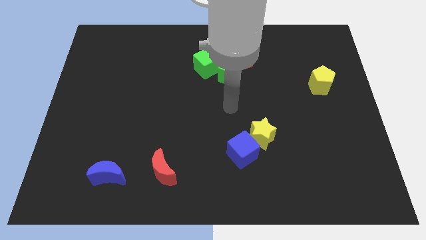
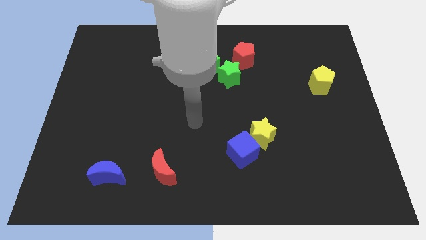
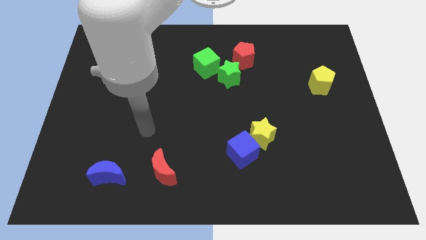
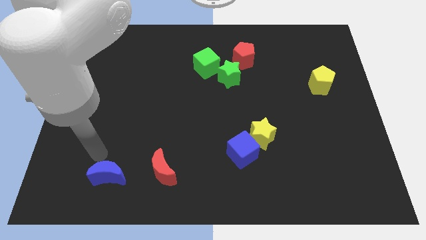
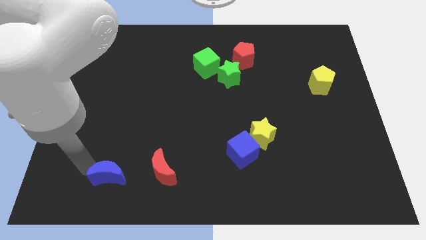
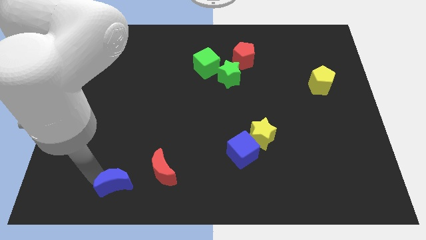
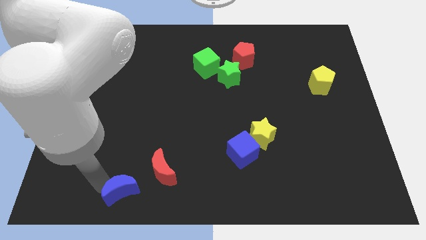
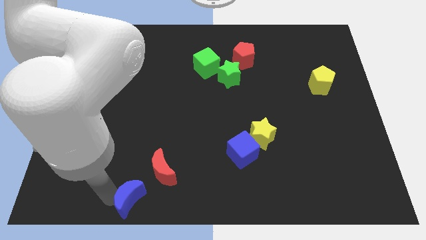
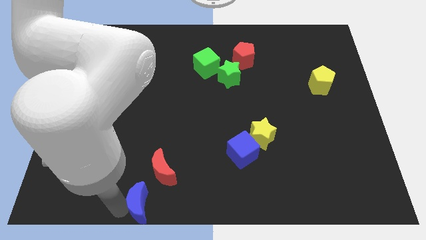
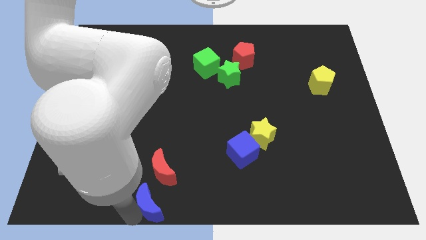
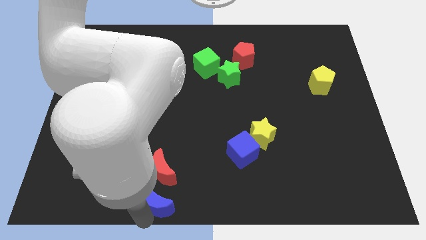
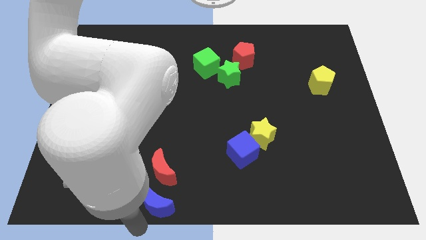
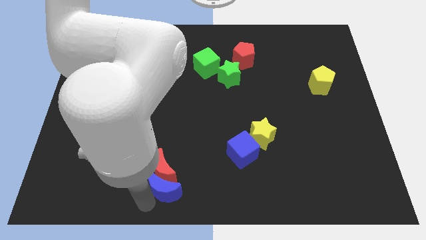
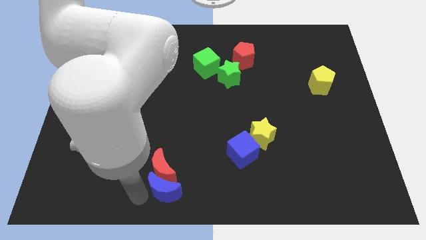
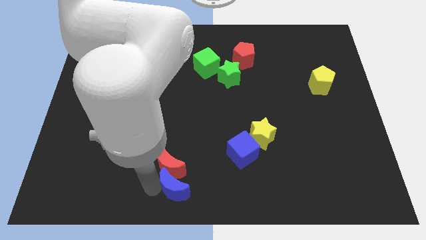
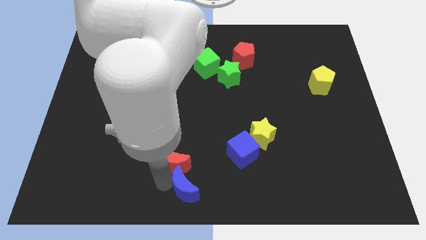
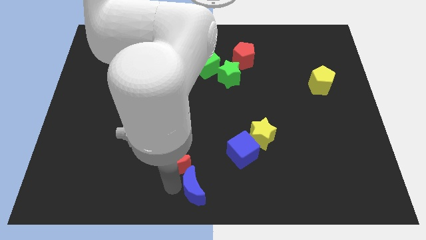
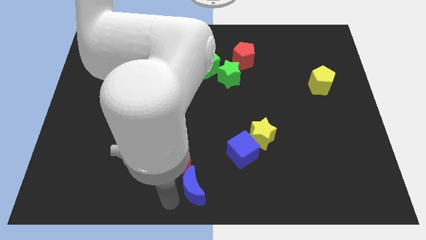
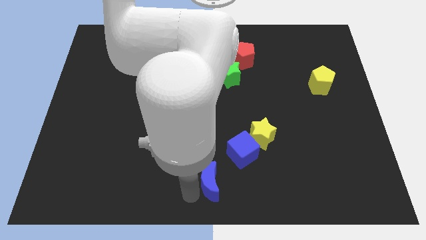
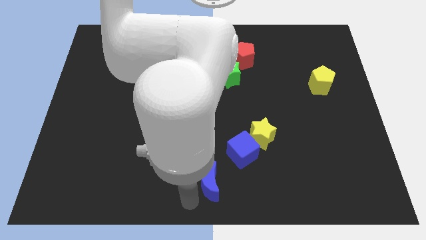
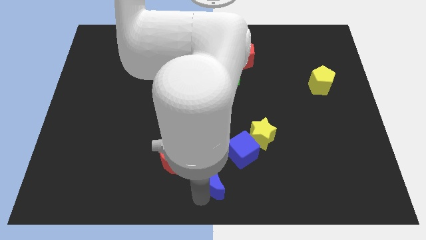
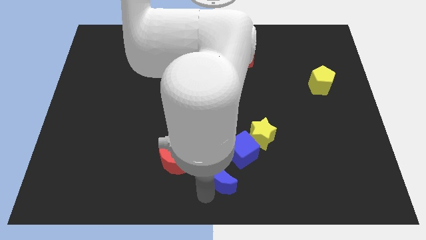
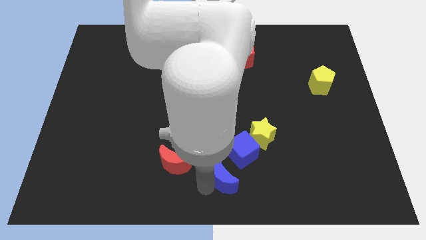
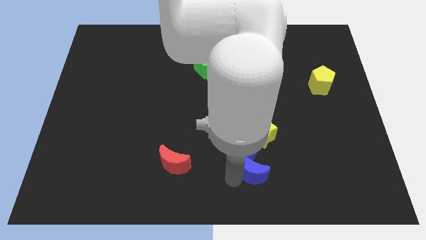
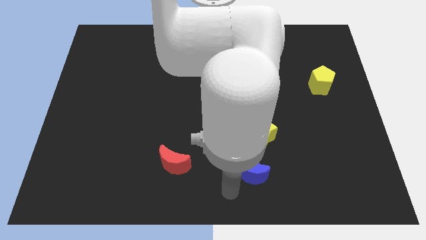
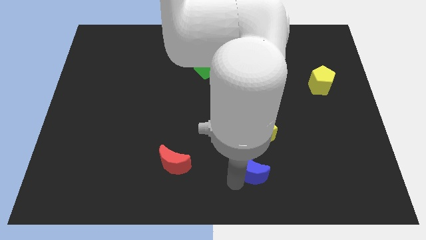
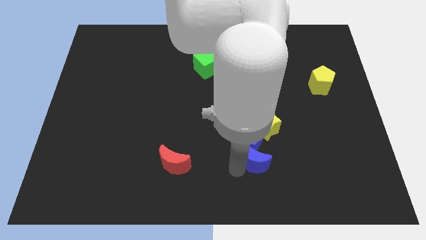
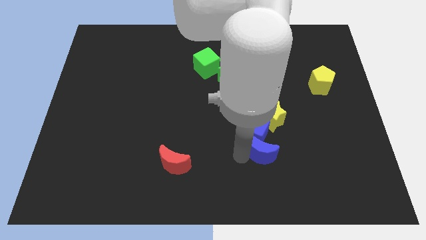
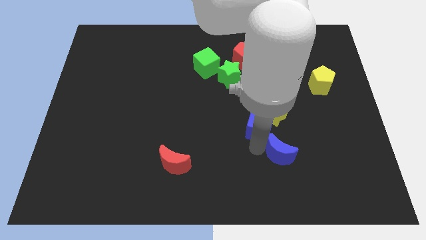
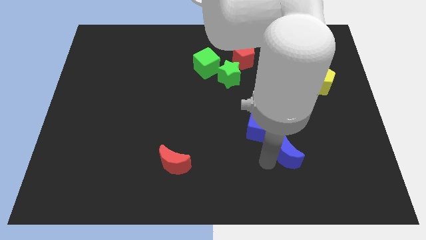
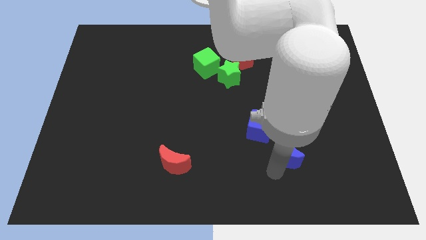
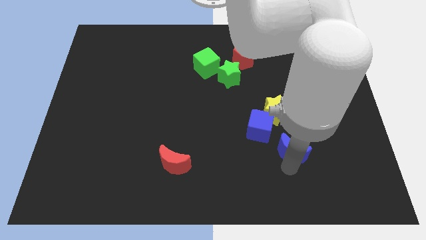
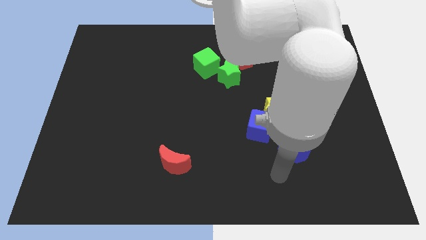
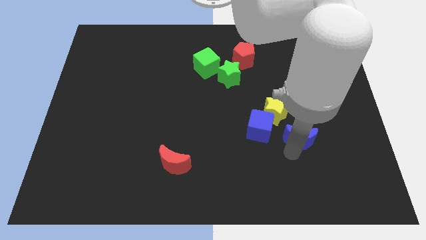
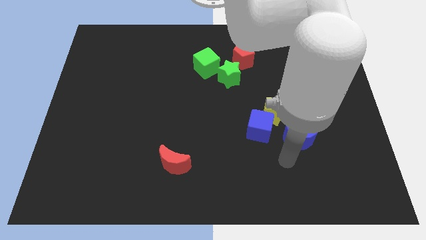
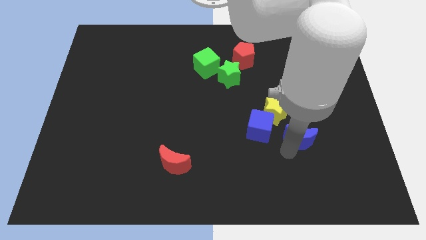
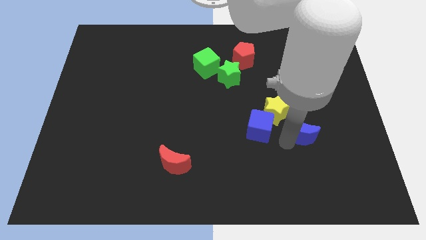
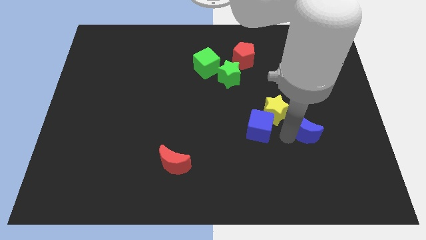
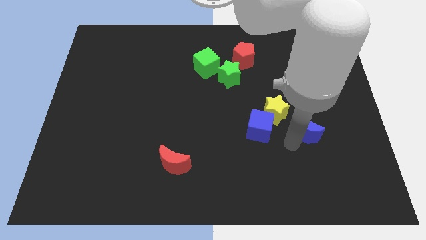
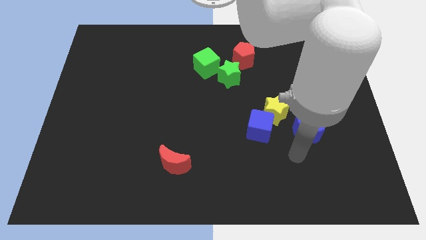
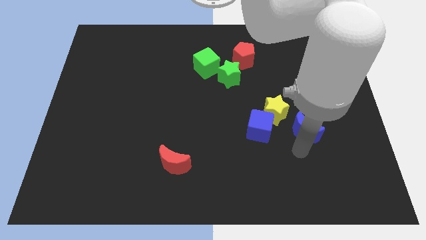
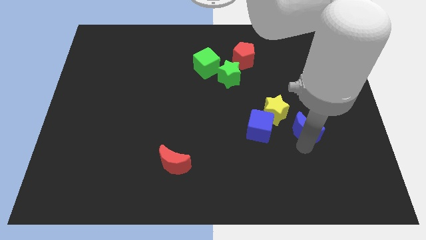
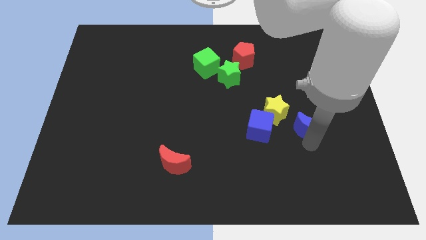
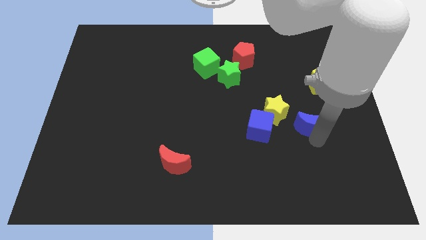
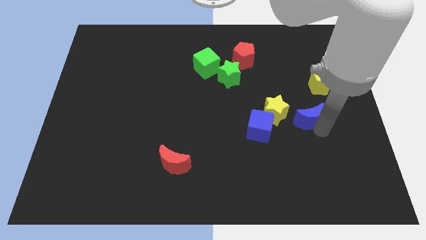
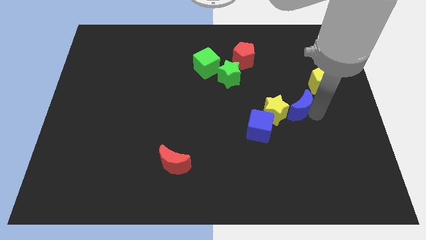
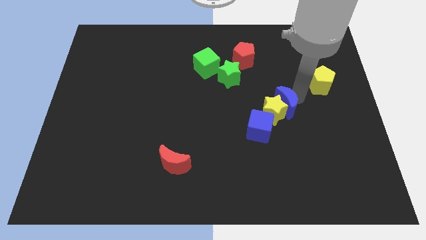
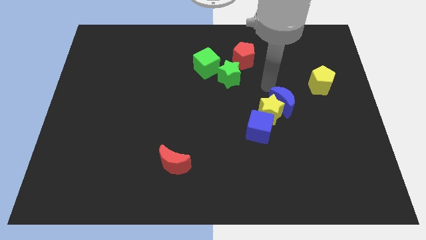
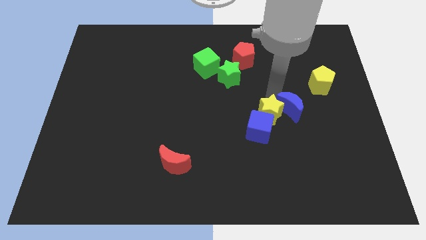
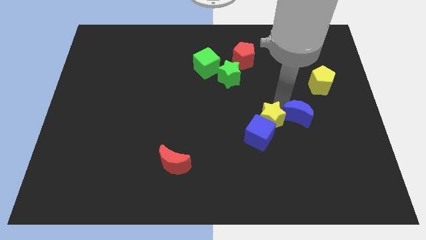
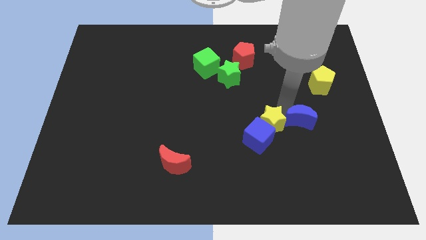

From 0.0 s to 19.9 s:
put the blue moon to the right side of the blue cube

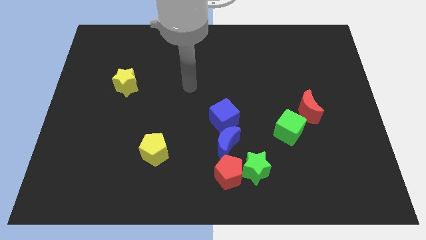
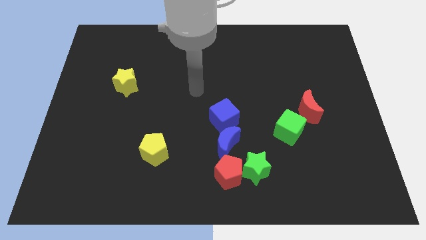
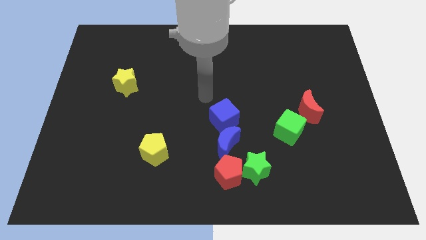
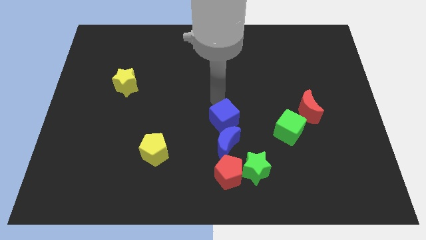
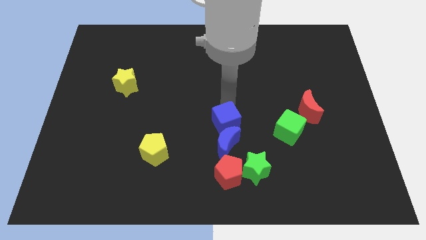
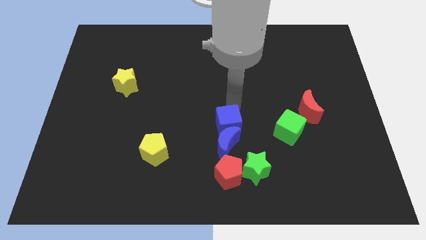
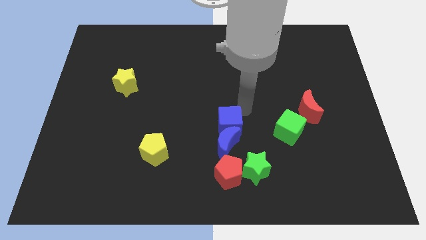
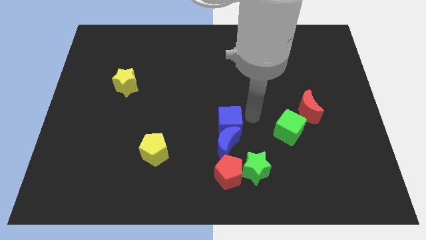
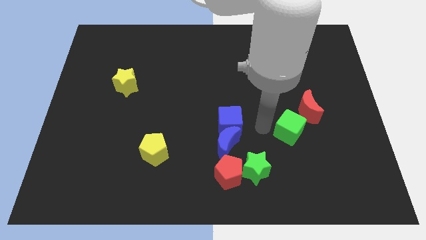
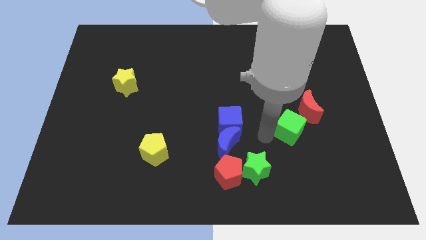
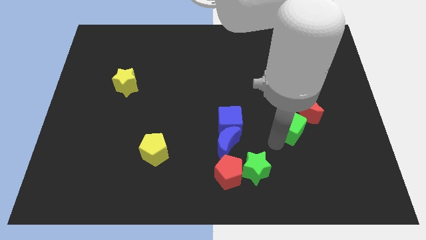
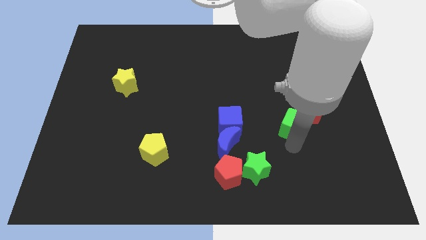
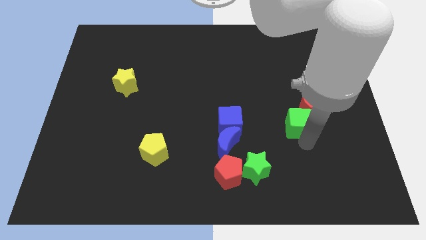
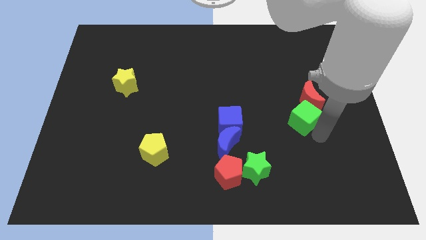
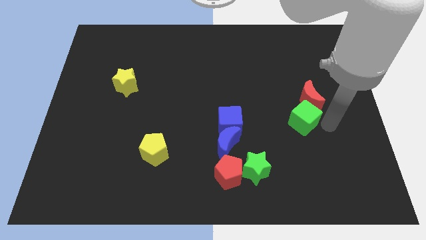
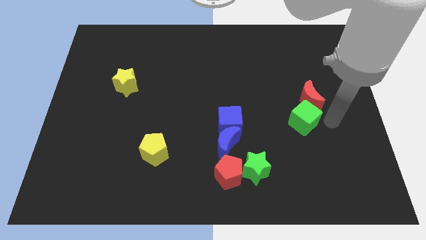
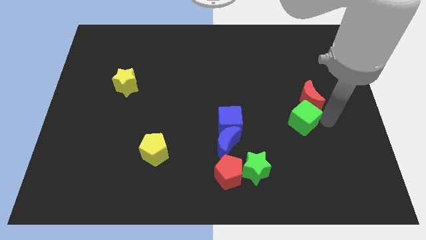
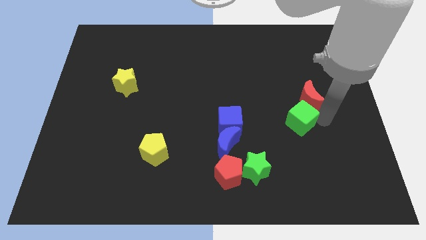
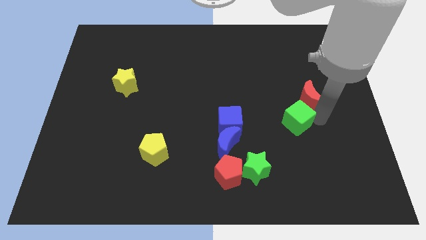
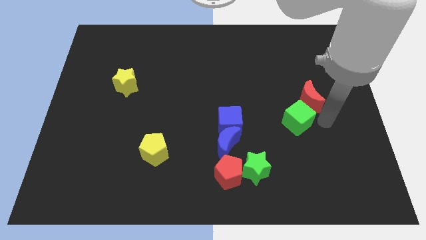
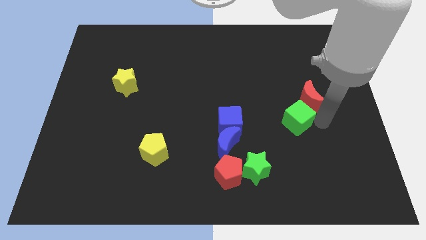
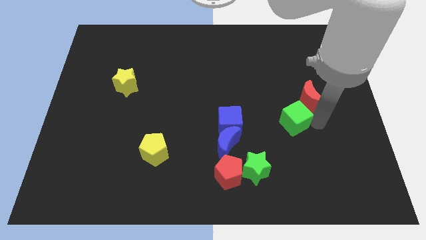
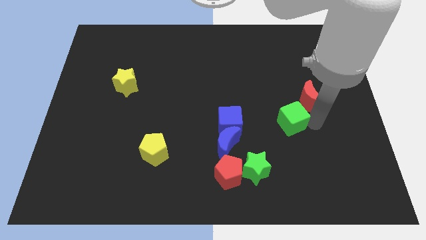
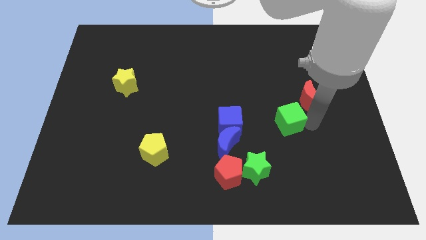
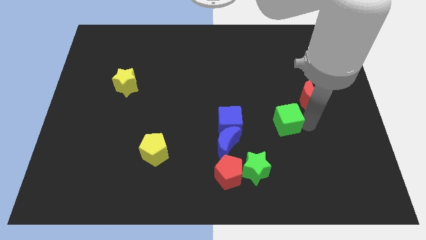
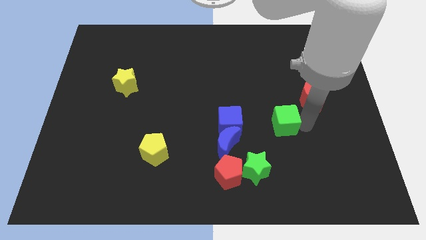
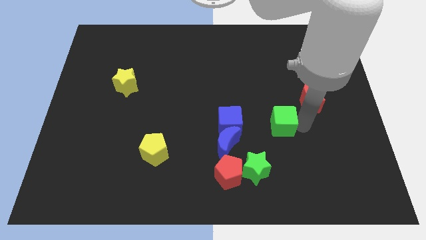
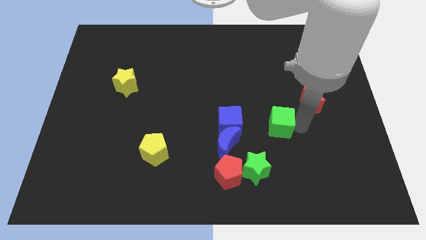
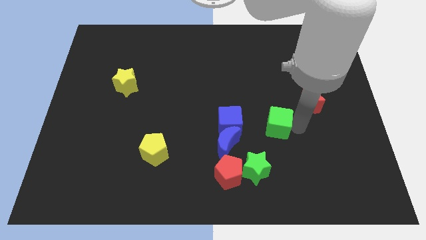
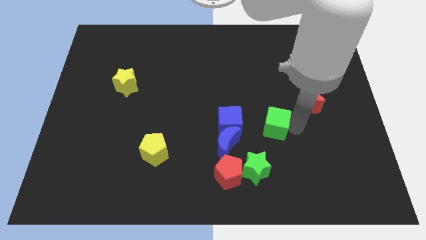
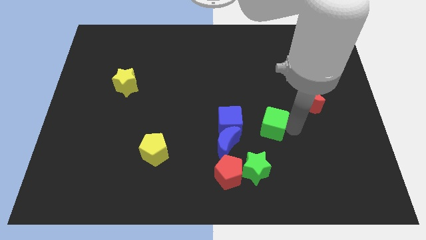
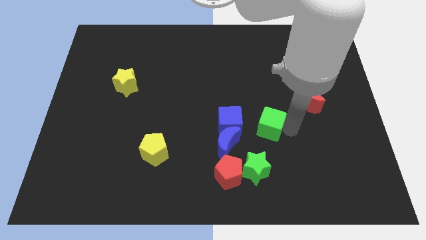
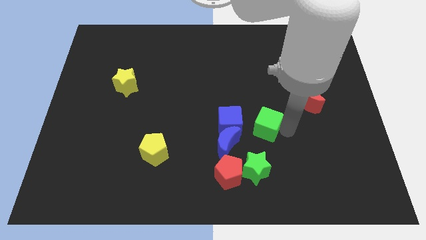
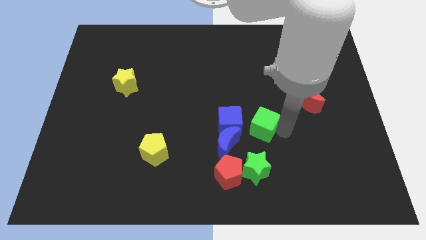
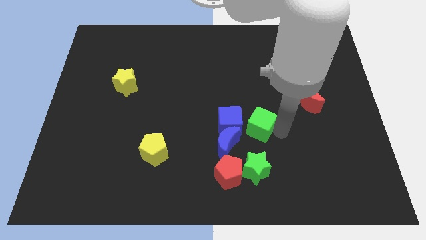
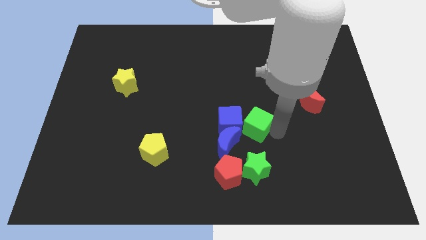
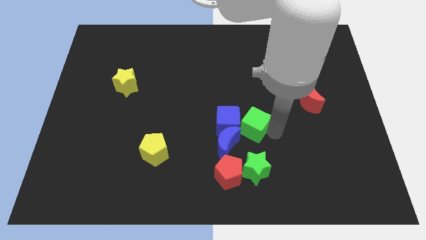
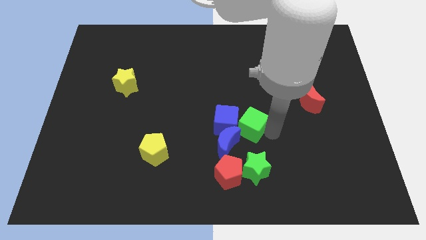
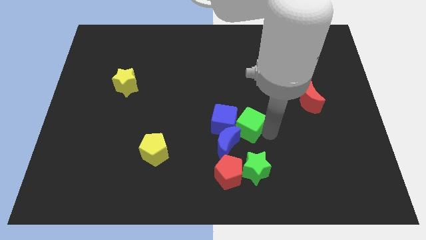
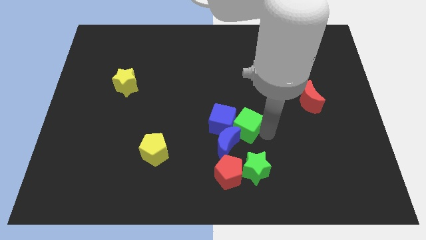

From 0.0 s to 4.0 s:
slide the green cube to the top side of the blue moon
